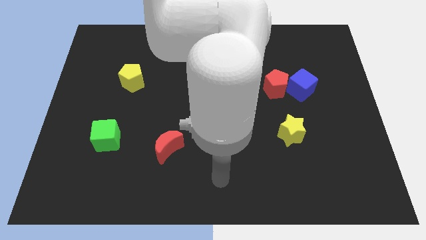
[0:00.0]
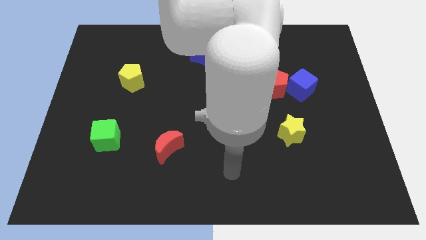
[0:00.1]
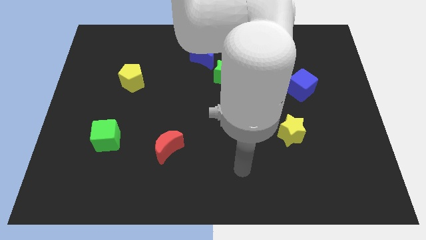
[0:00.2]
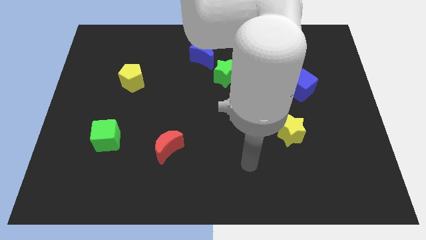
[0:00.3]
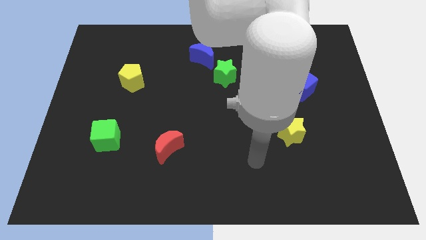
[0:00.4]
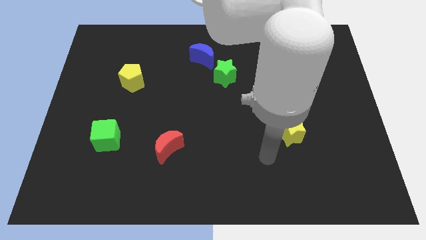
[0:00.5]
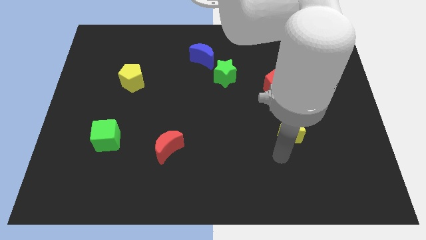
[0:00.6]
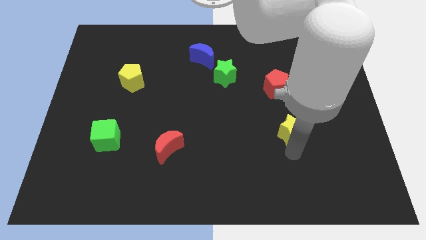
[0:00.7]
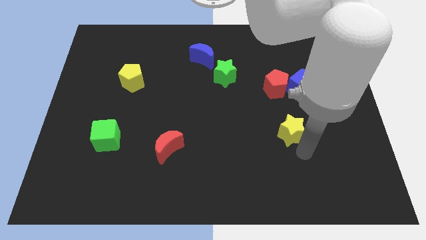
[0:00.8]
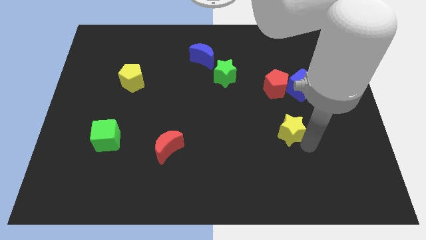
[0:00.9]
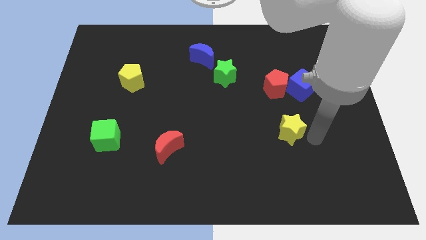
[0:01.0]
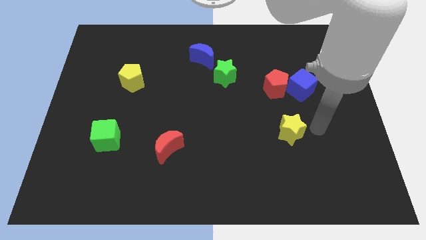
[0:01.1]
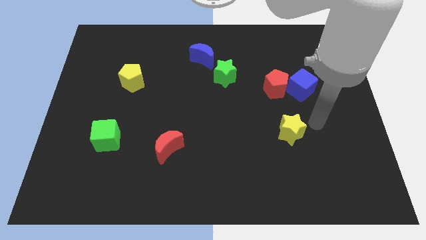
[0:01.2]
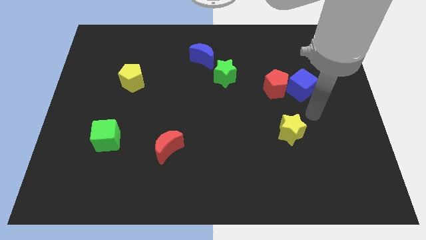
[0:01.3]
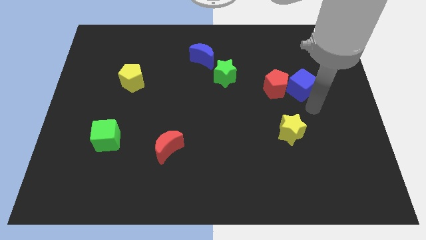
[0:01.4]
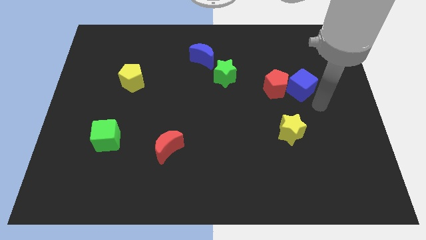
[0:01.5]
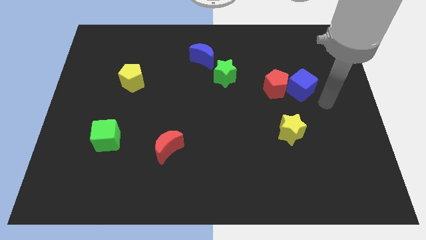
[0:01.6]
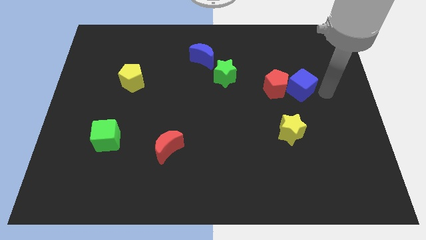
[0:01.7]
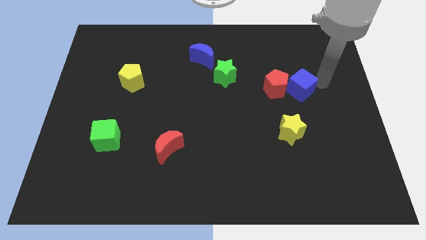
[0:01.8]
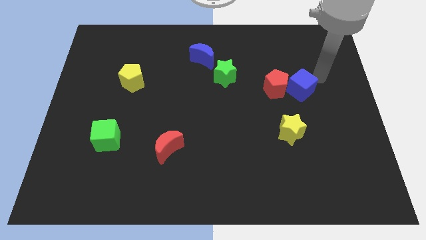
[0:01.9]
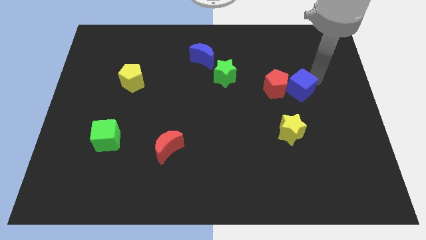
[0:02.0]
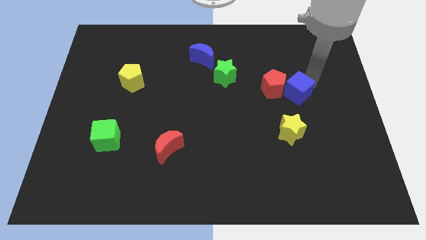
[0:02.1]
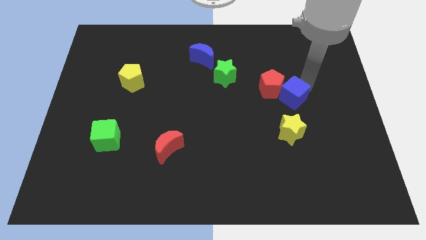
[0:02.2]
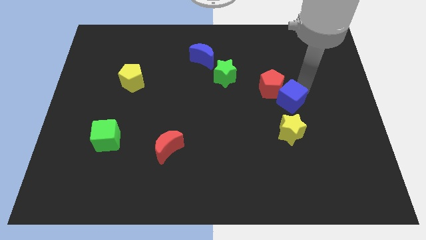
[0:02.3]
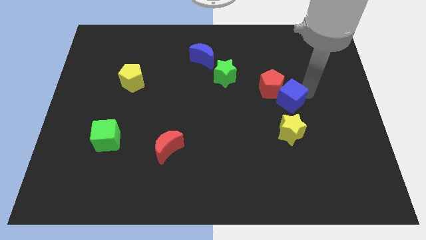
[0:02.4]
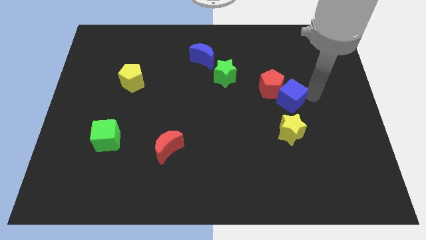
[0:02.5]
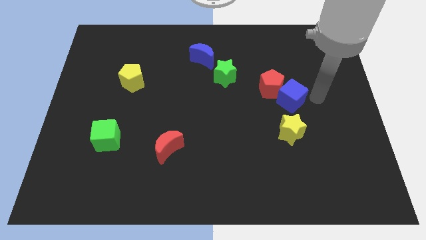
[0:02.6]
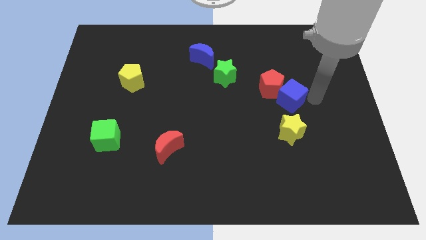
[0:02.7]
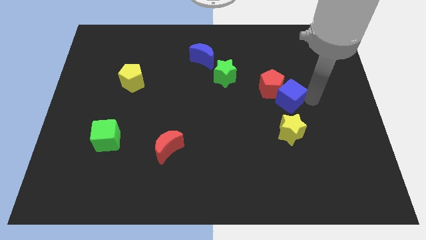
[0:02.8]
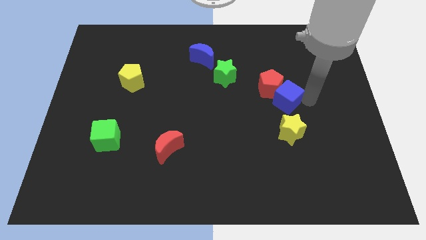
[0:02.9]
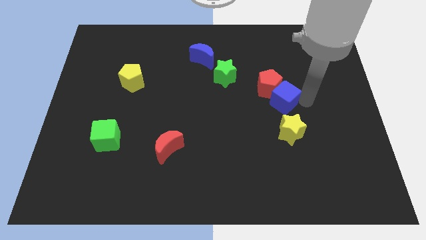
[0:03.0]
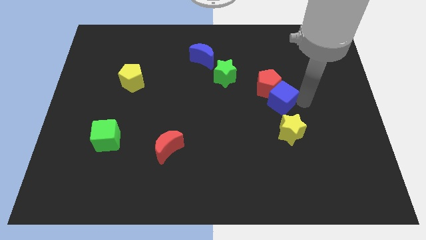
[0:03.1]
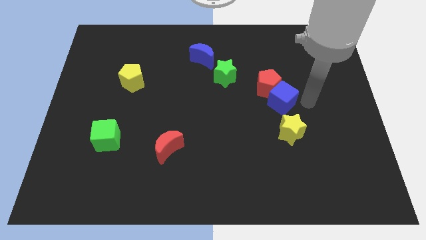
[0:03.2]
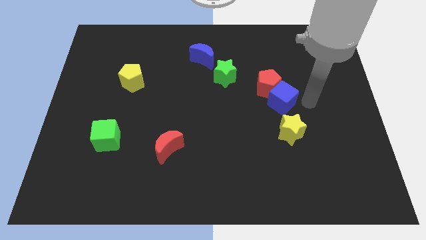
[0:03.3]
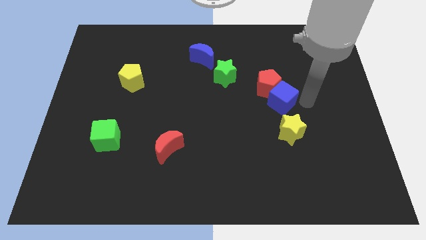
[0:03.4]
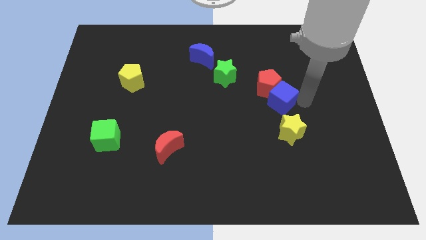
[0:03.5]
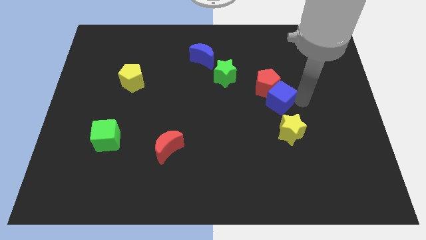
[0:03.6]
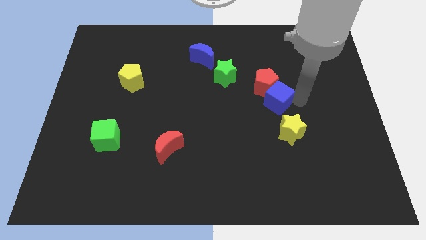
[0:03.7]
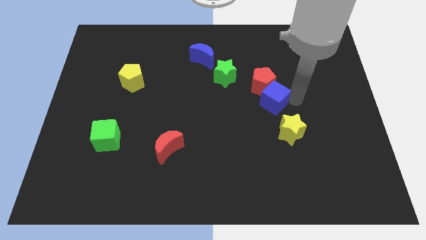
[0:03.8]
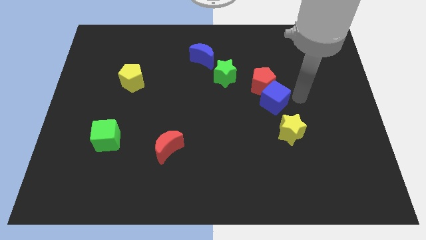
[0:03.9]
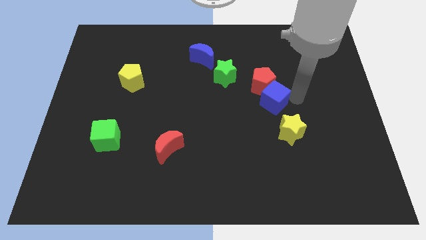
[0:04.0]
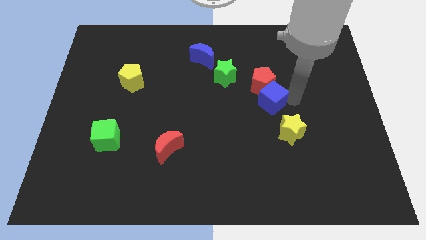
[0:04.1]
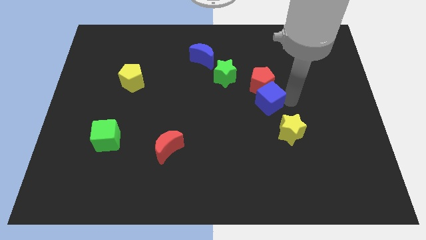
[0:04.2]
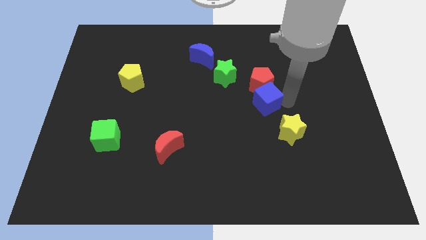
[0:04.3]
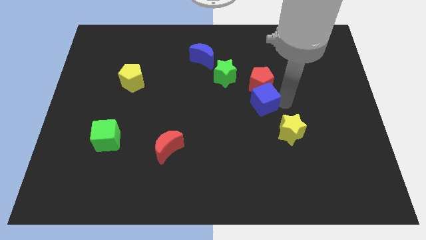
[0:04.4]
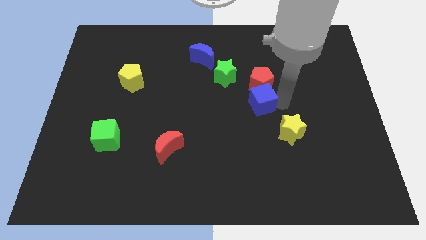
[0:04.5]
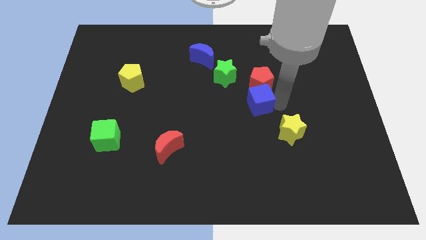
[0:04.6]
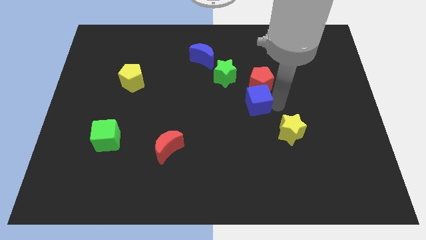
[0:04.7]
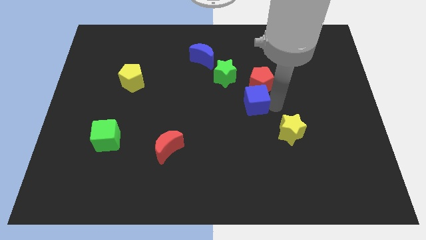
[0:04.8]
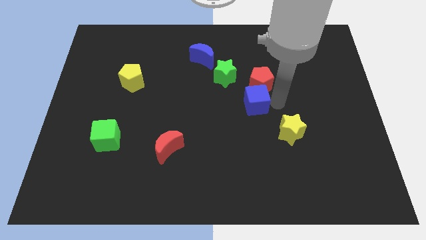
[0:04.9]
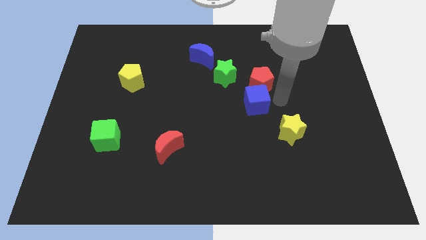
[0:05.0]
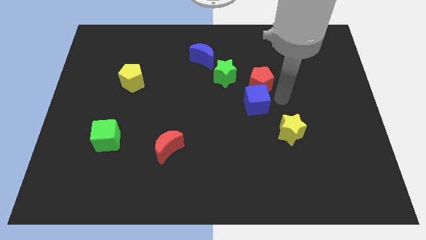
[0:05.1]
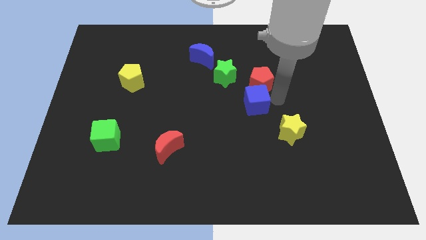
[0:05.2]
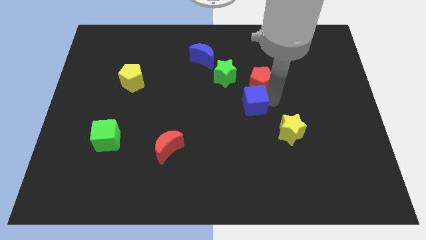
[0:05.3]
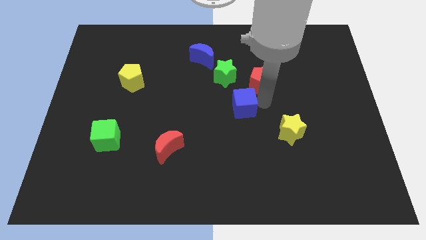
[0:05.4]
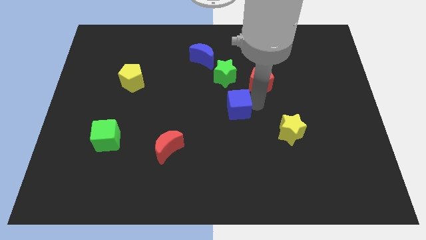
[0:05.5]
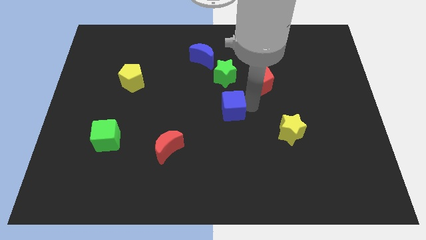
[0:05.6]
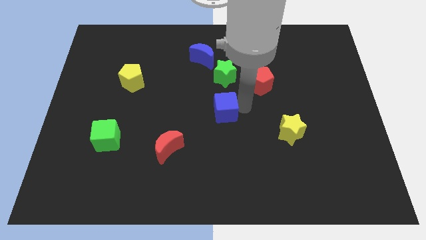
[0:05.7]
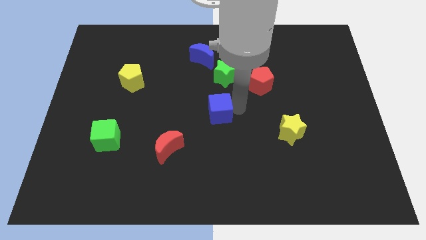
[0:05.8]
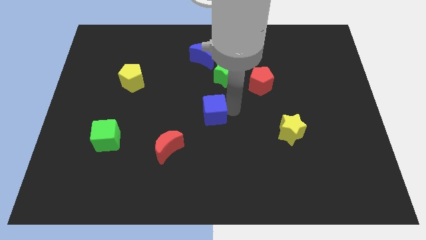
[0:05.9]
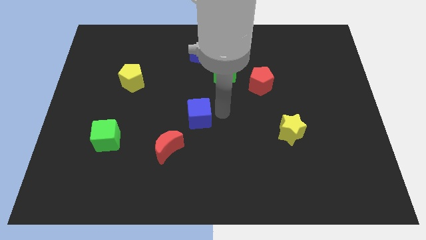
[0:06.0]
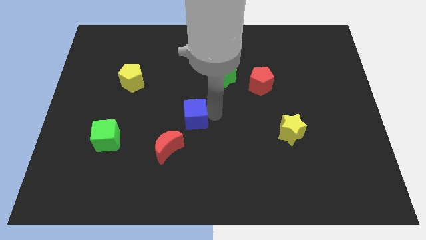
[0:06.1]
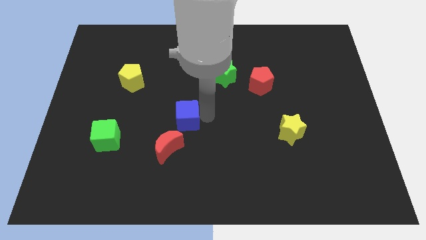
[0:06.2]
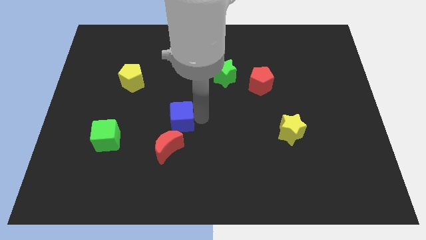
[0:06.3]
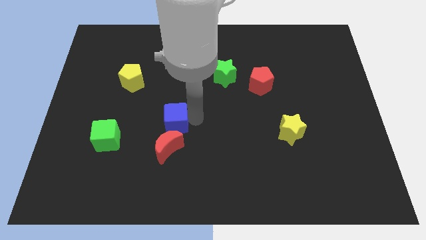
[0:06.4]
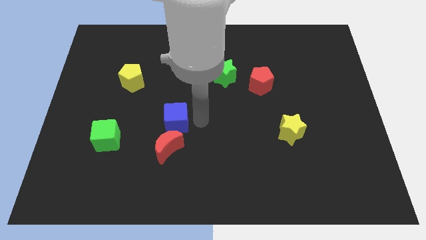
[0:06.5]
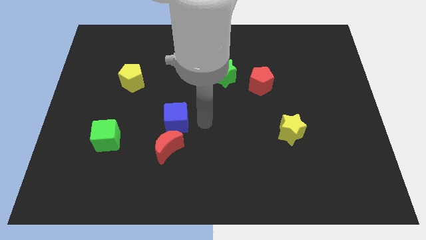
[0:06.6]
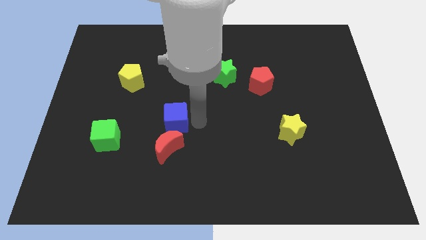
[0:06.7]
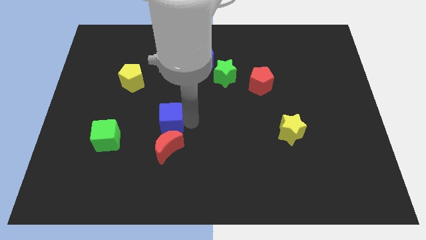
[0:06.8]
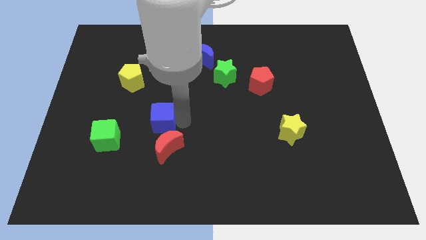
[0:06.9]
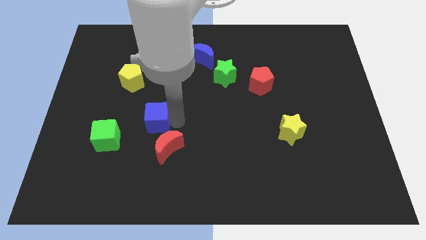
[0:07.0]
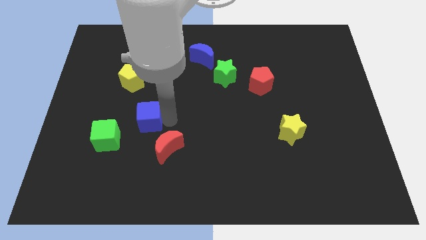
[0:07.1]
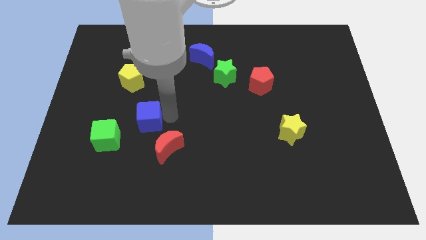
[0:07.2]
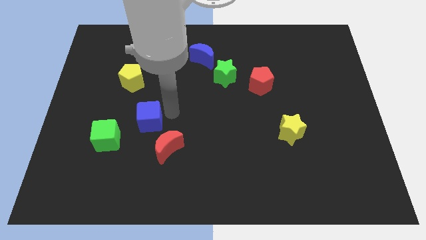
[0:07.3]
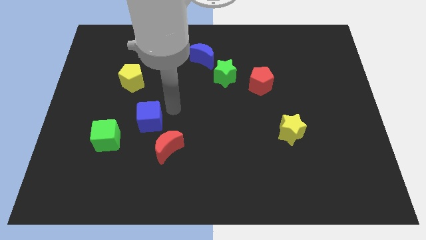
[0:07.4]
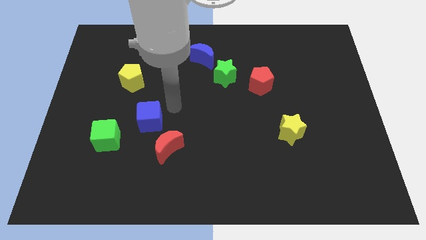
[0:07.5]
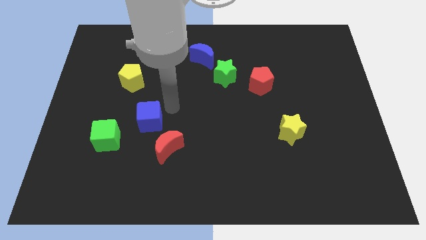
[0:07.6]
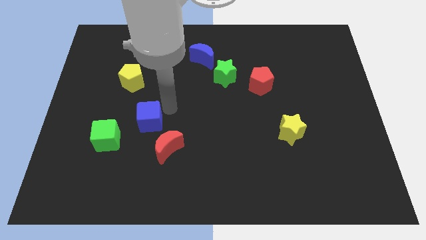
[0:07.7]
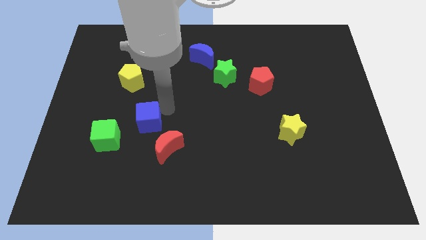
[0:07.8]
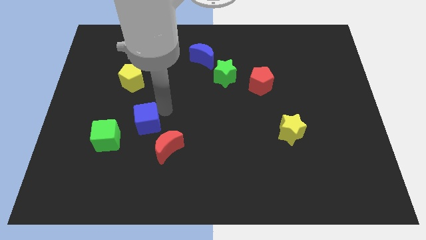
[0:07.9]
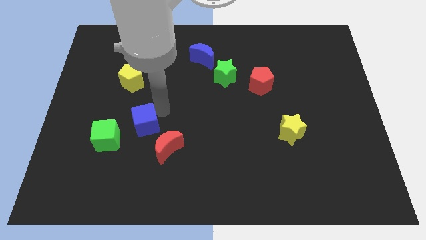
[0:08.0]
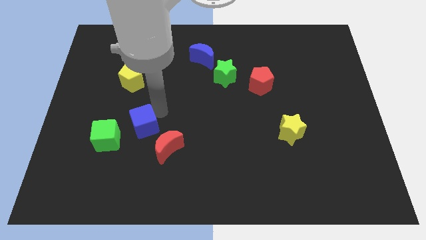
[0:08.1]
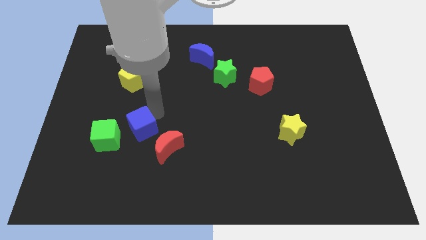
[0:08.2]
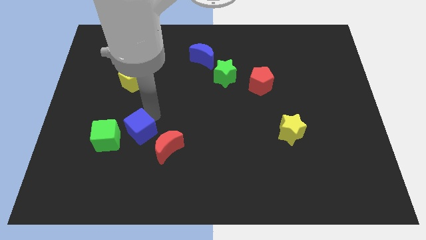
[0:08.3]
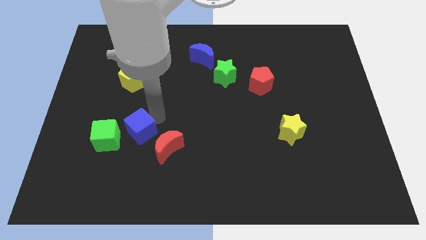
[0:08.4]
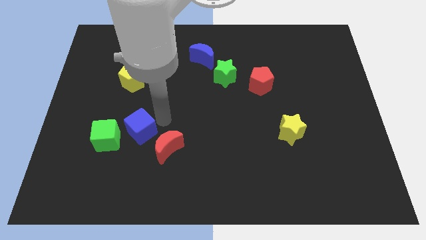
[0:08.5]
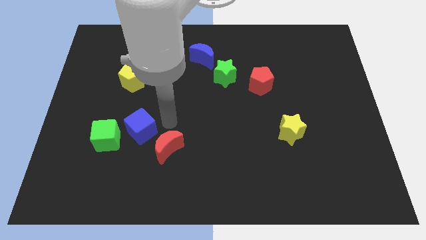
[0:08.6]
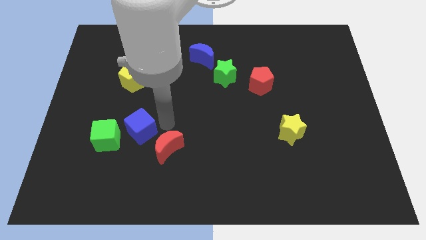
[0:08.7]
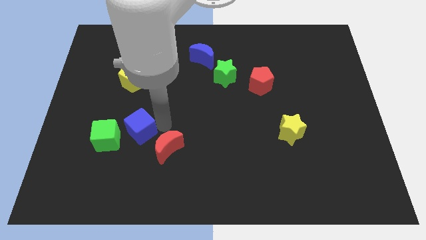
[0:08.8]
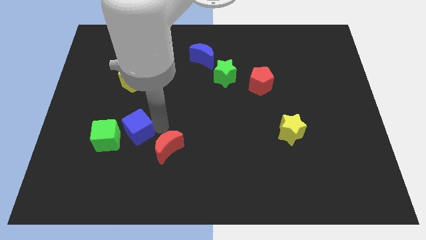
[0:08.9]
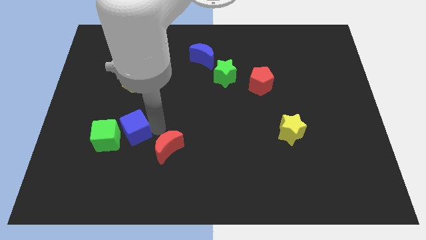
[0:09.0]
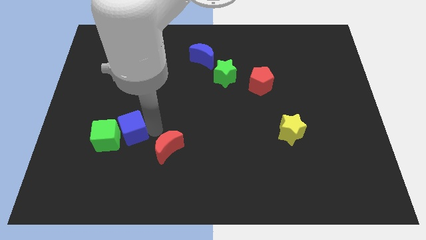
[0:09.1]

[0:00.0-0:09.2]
put the blue cube to the green cube
